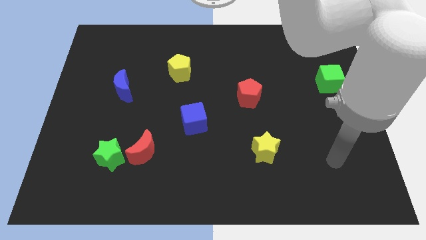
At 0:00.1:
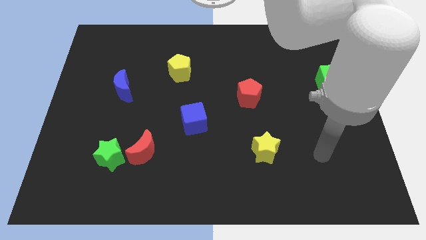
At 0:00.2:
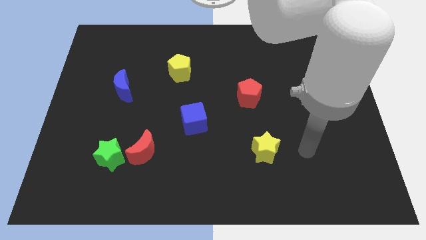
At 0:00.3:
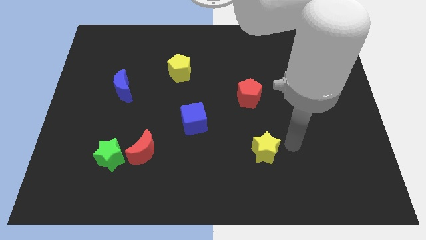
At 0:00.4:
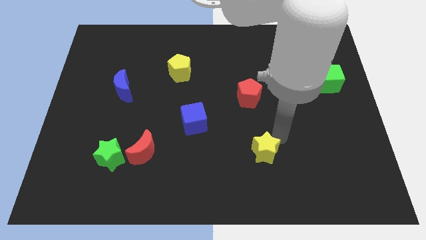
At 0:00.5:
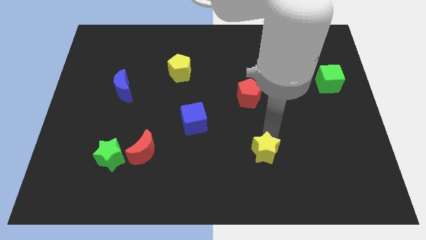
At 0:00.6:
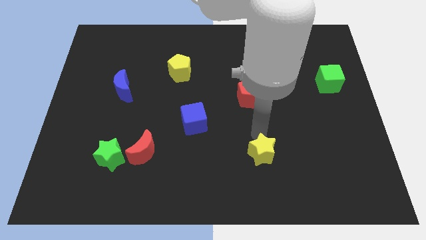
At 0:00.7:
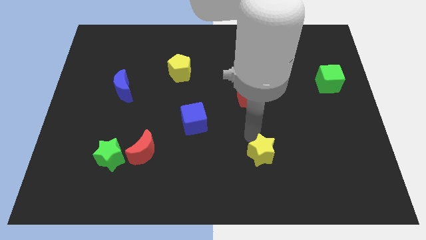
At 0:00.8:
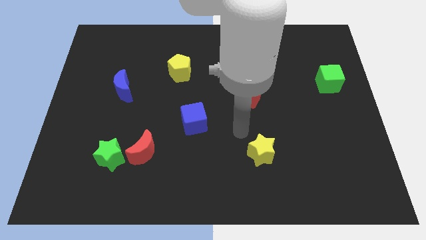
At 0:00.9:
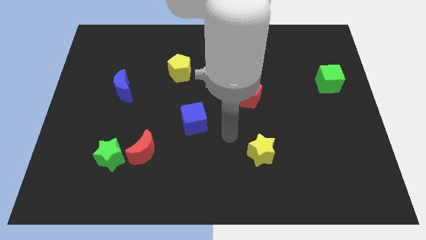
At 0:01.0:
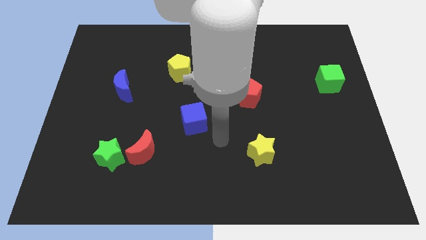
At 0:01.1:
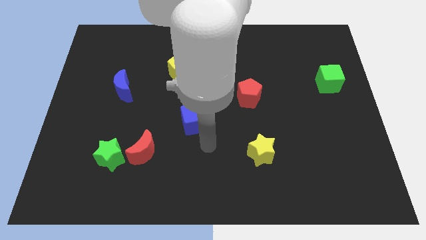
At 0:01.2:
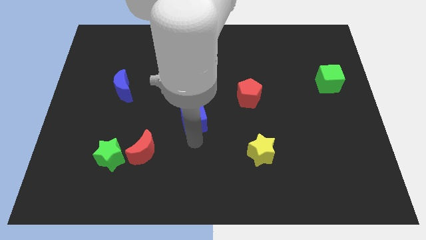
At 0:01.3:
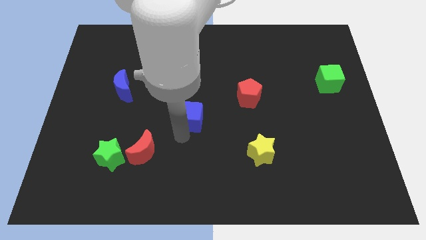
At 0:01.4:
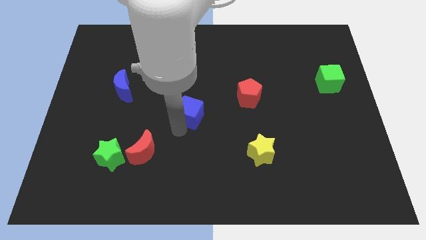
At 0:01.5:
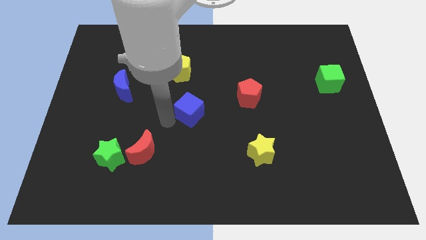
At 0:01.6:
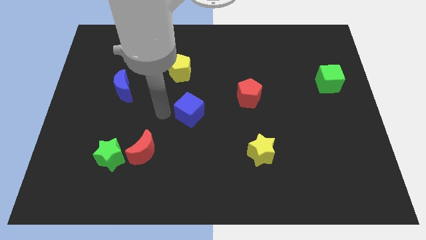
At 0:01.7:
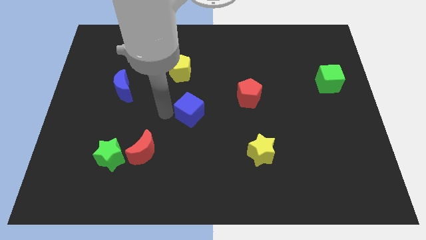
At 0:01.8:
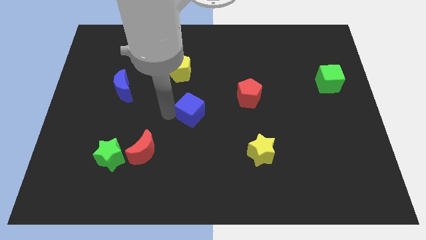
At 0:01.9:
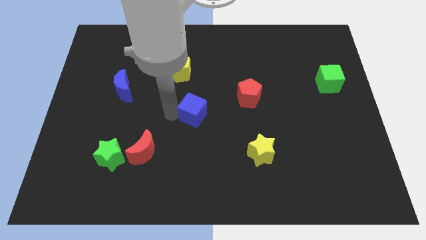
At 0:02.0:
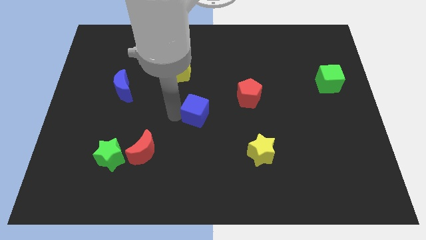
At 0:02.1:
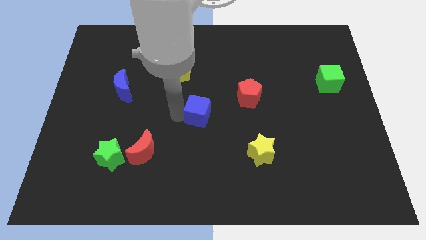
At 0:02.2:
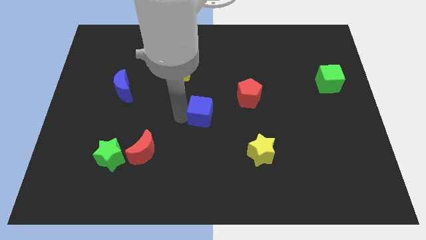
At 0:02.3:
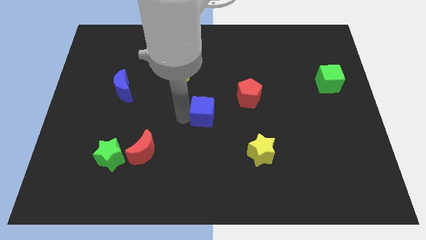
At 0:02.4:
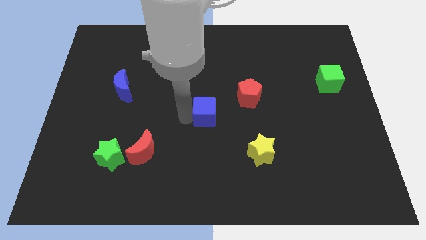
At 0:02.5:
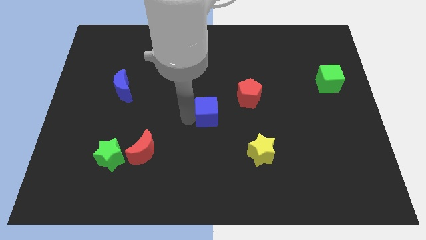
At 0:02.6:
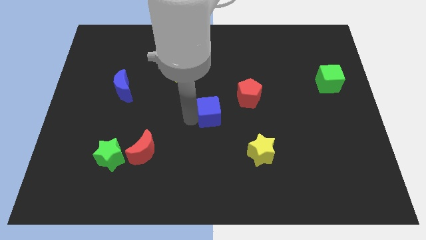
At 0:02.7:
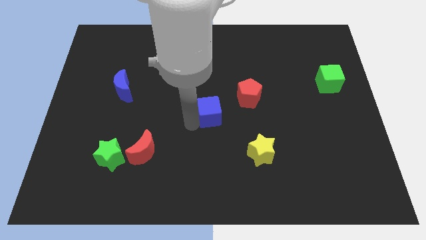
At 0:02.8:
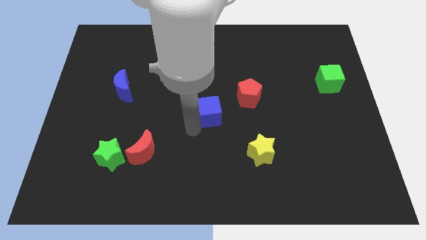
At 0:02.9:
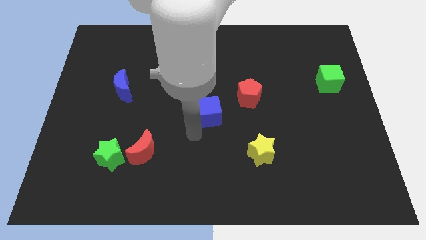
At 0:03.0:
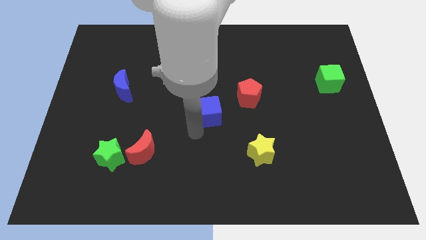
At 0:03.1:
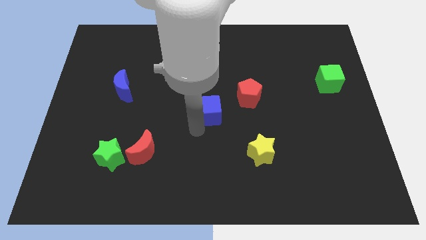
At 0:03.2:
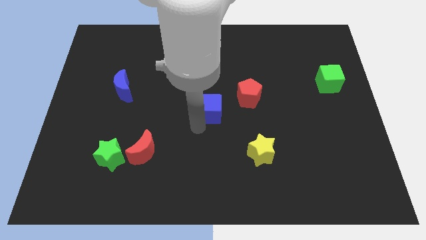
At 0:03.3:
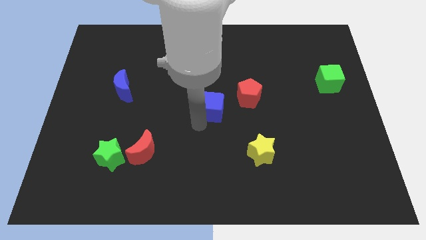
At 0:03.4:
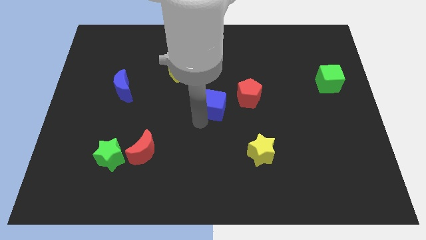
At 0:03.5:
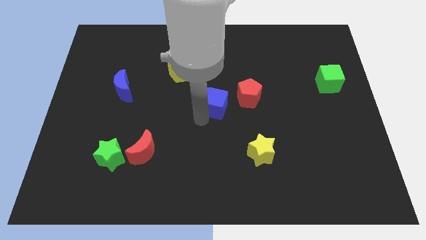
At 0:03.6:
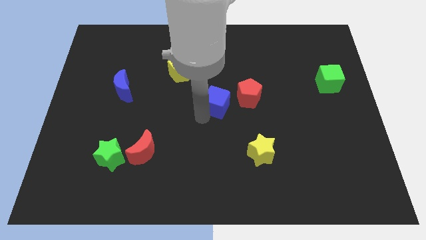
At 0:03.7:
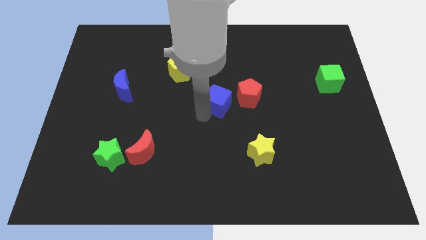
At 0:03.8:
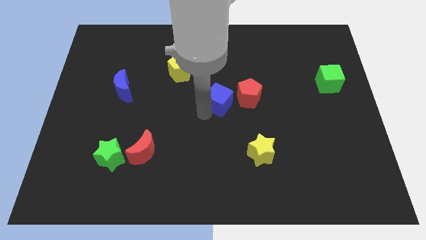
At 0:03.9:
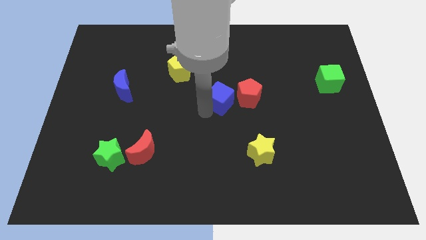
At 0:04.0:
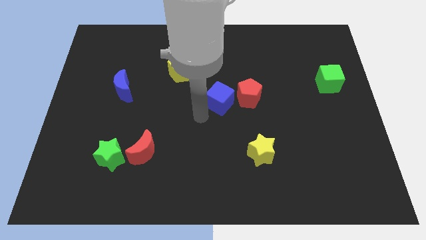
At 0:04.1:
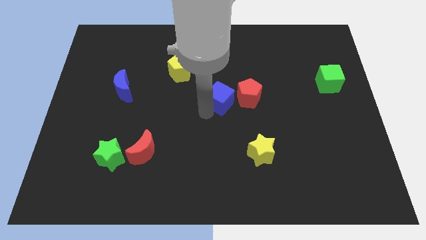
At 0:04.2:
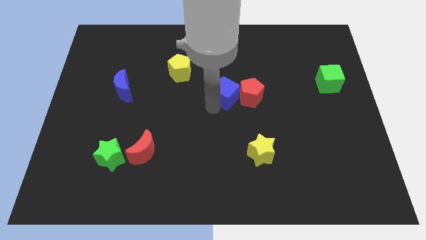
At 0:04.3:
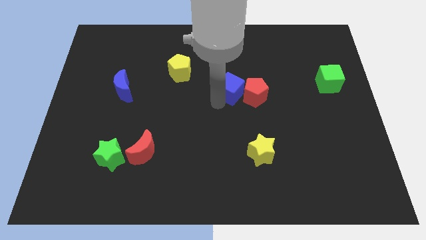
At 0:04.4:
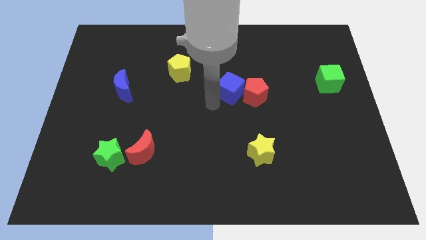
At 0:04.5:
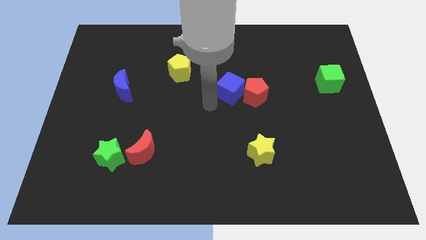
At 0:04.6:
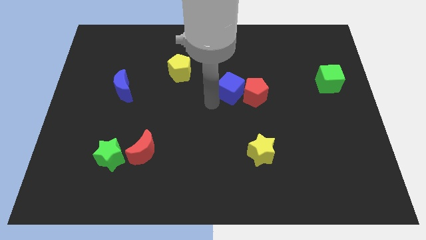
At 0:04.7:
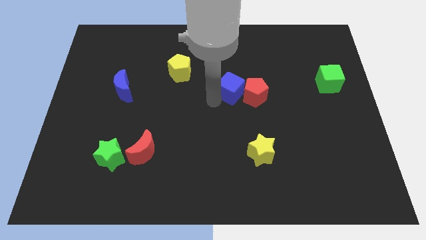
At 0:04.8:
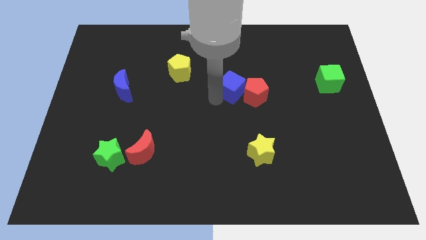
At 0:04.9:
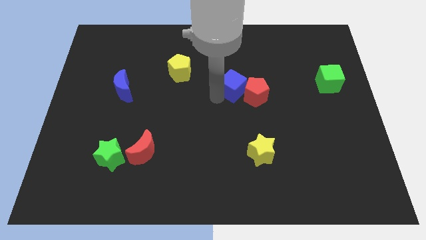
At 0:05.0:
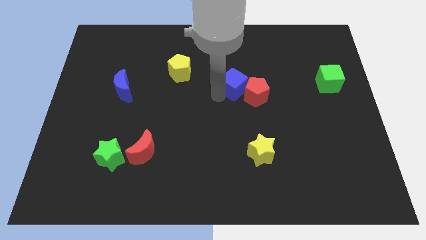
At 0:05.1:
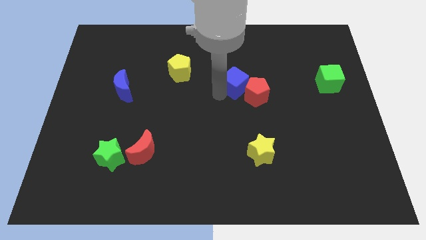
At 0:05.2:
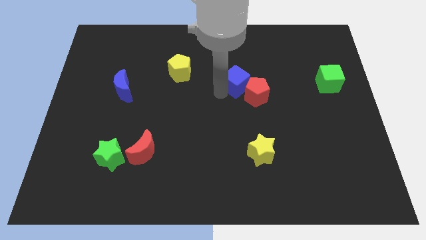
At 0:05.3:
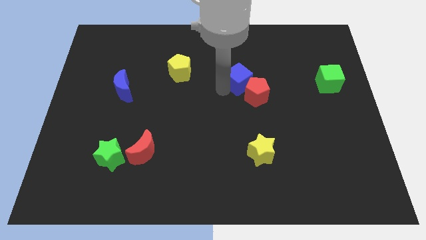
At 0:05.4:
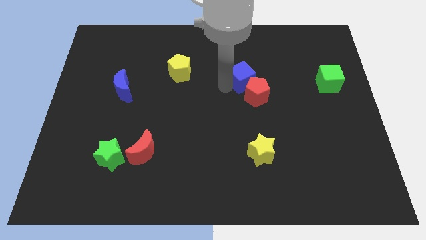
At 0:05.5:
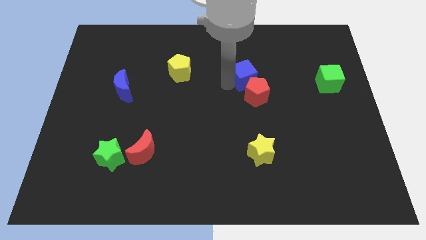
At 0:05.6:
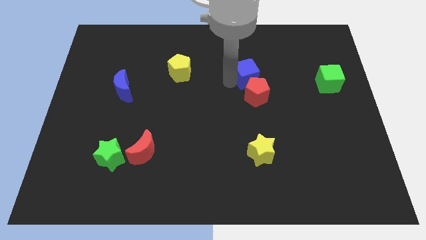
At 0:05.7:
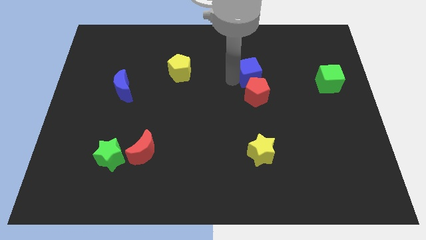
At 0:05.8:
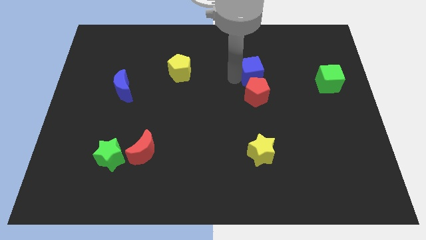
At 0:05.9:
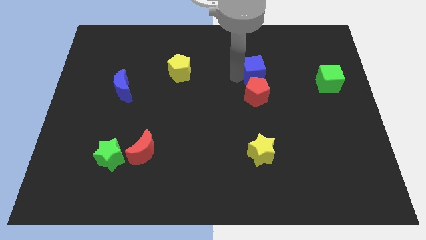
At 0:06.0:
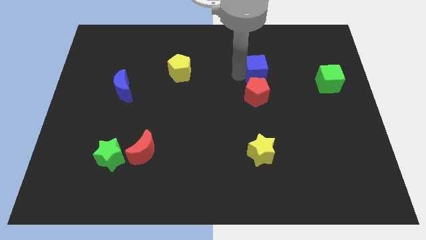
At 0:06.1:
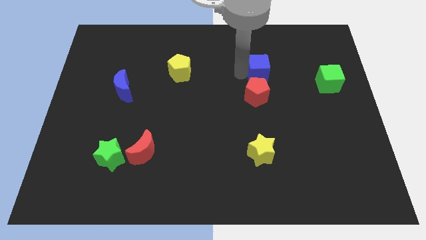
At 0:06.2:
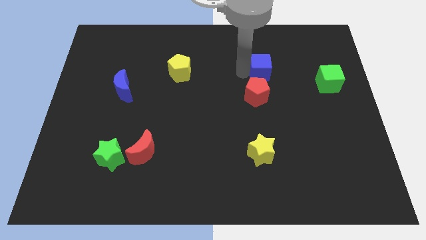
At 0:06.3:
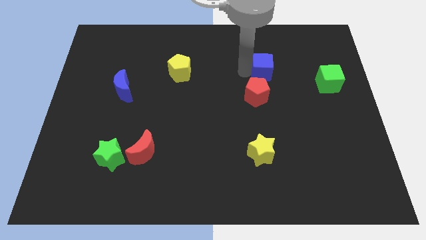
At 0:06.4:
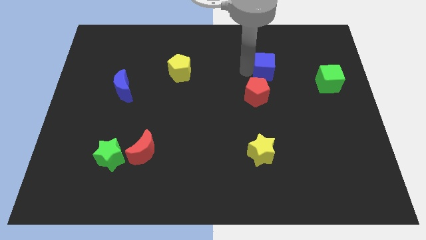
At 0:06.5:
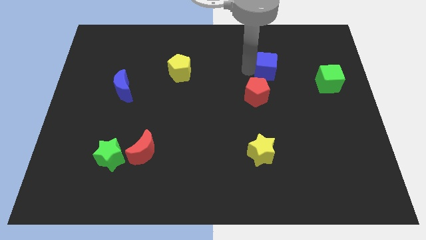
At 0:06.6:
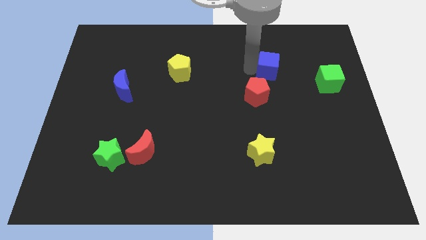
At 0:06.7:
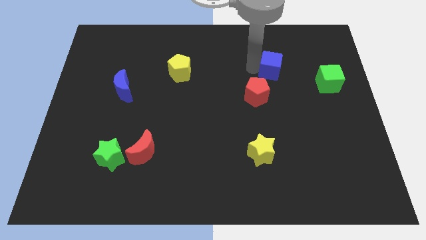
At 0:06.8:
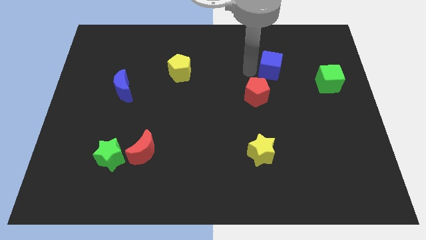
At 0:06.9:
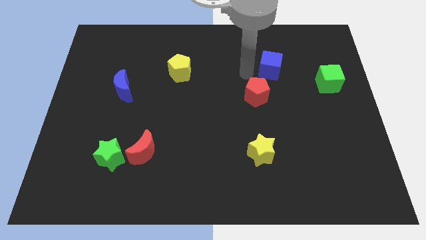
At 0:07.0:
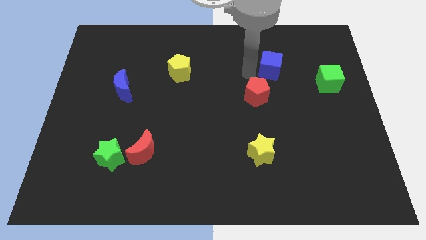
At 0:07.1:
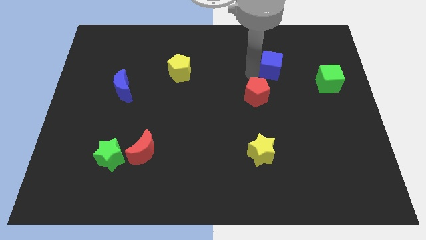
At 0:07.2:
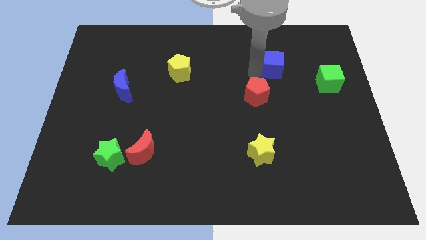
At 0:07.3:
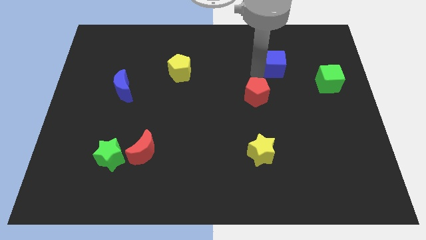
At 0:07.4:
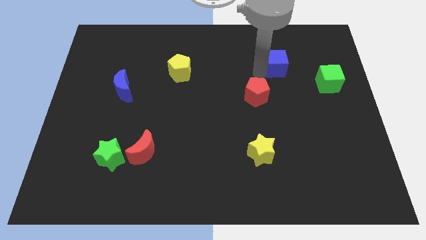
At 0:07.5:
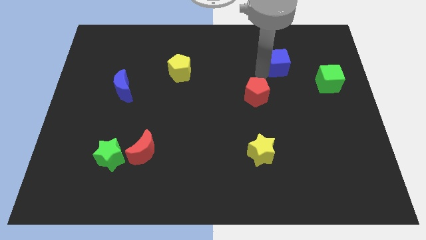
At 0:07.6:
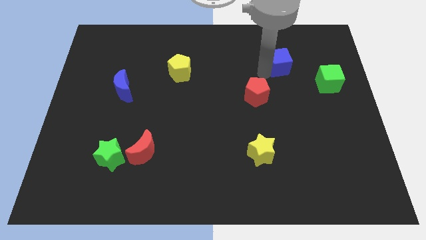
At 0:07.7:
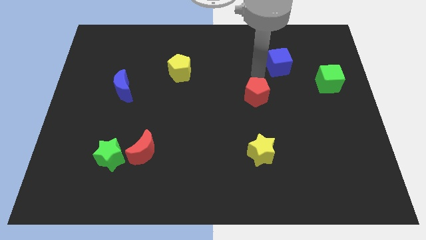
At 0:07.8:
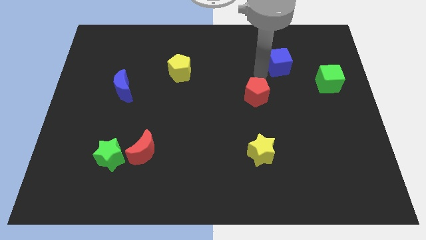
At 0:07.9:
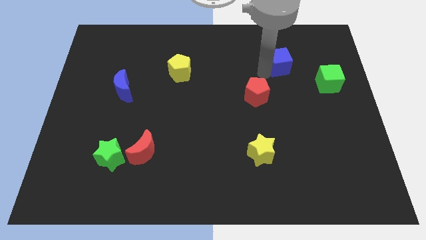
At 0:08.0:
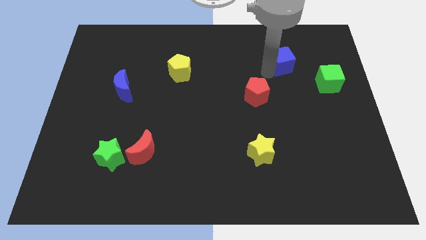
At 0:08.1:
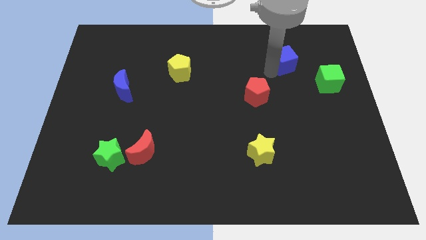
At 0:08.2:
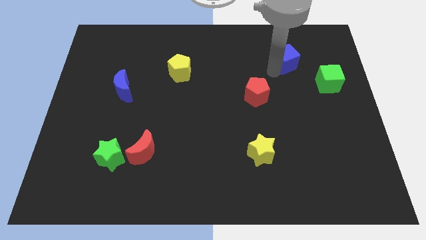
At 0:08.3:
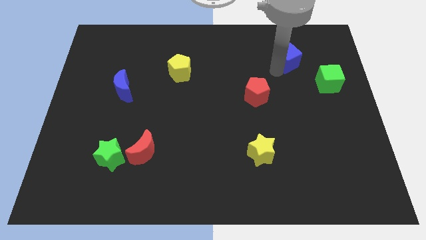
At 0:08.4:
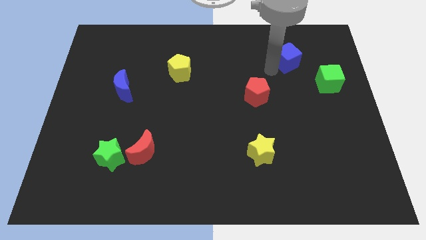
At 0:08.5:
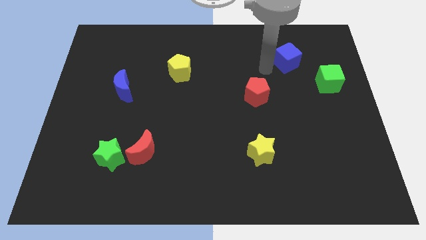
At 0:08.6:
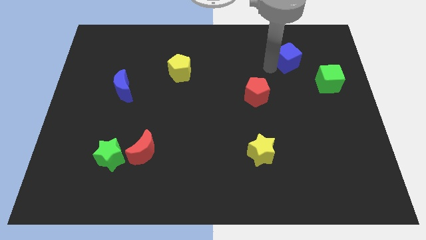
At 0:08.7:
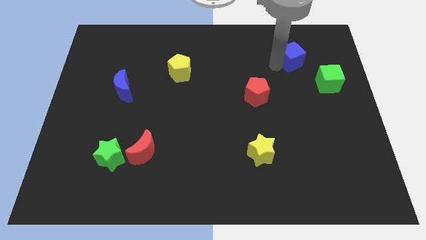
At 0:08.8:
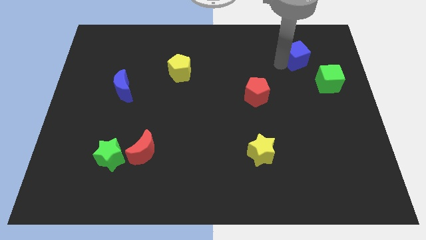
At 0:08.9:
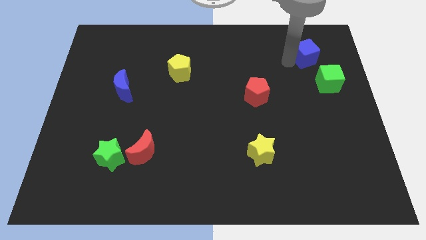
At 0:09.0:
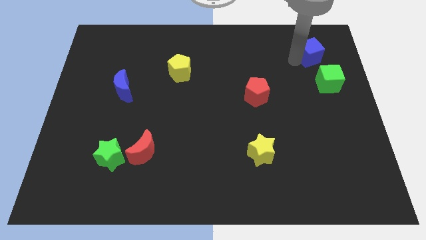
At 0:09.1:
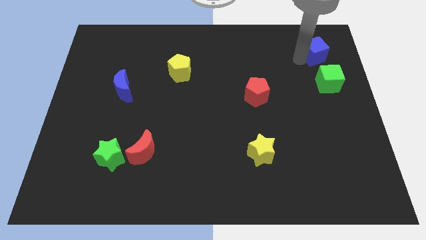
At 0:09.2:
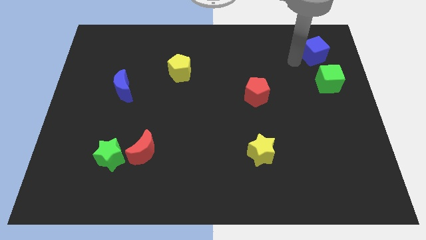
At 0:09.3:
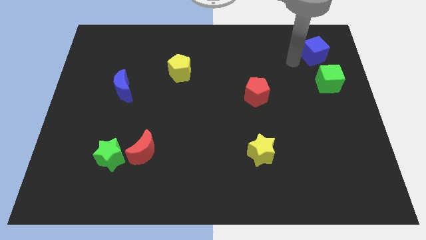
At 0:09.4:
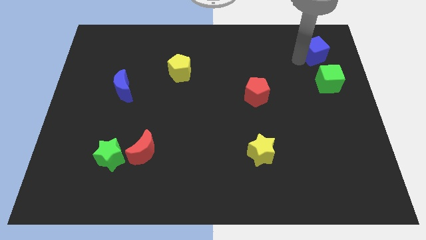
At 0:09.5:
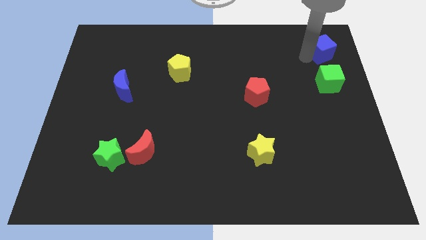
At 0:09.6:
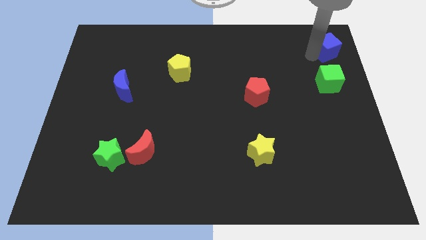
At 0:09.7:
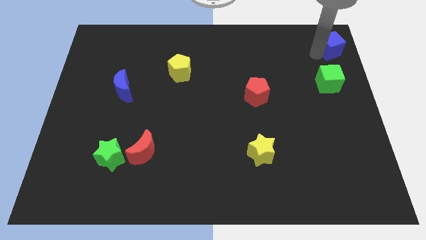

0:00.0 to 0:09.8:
move the blue cube to the upper right corner
